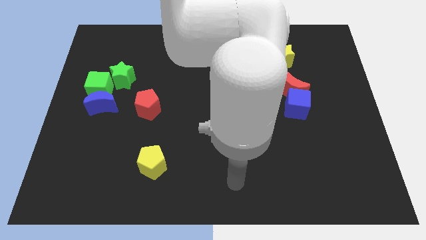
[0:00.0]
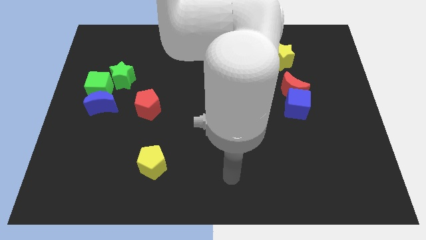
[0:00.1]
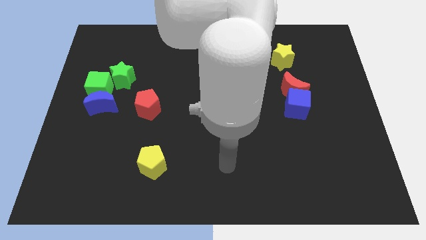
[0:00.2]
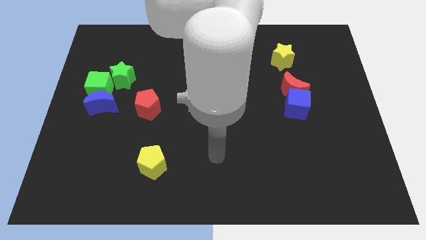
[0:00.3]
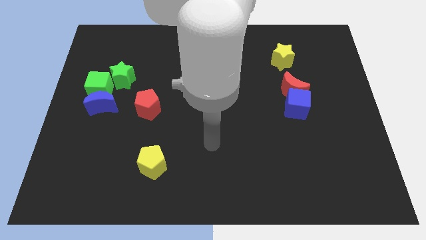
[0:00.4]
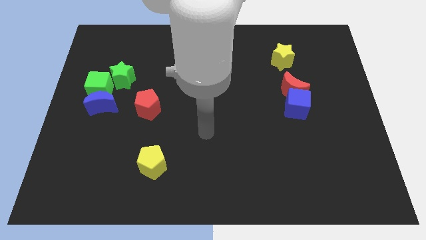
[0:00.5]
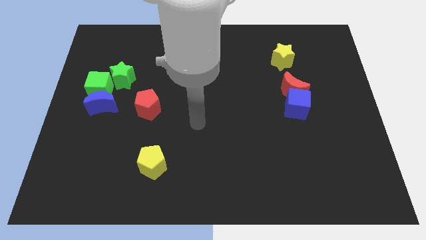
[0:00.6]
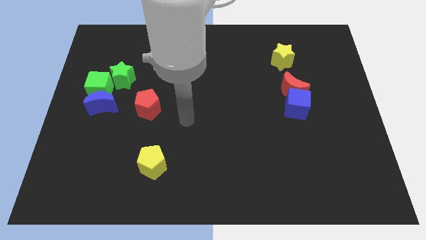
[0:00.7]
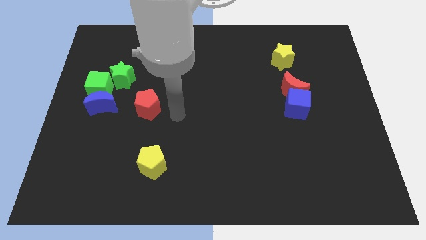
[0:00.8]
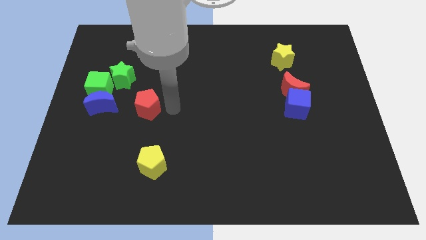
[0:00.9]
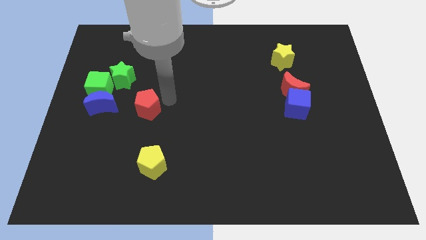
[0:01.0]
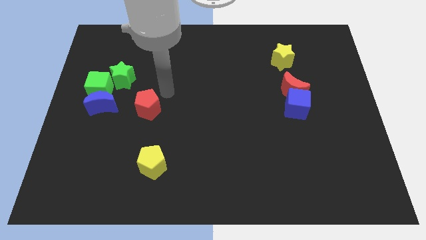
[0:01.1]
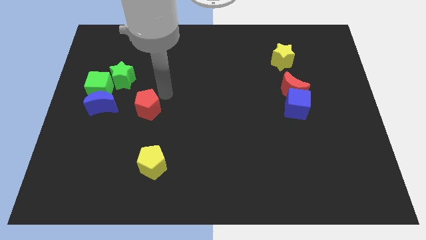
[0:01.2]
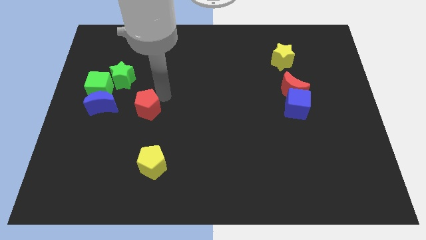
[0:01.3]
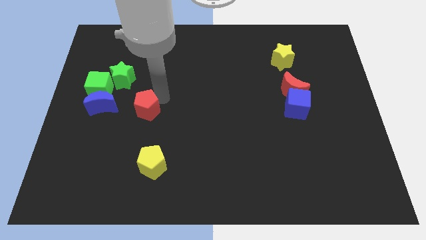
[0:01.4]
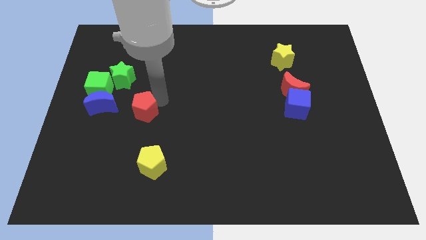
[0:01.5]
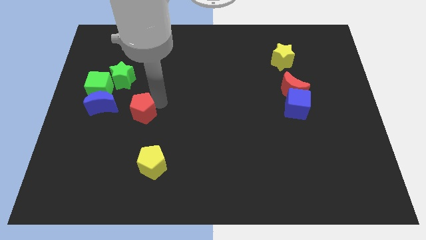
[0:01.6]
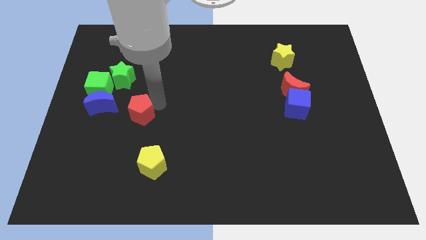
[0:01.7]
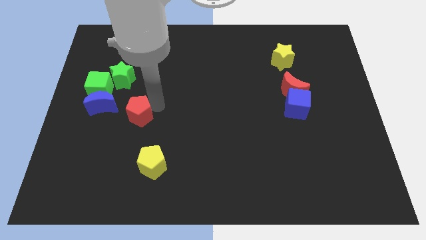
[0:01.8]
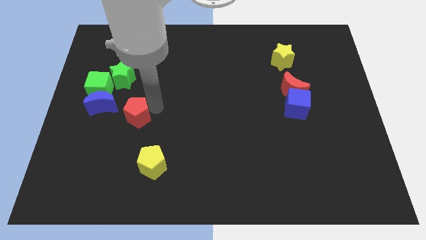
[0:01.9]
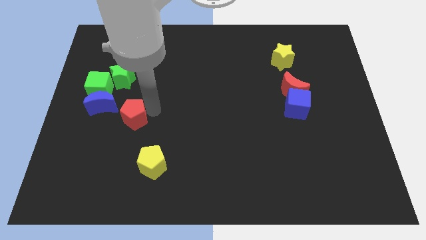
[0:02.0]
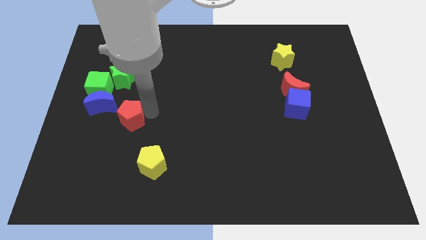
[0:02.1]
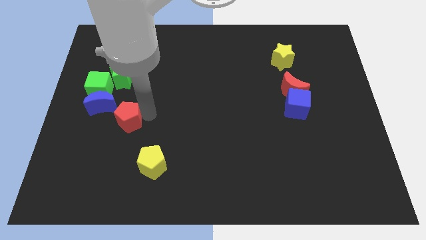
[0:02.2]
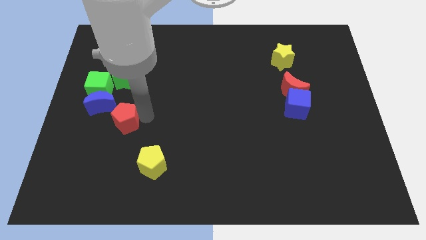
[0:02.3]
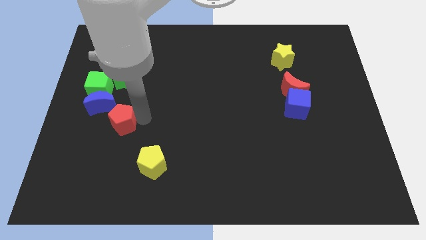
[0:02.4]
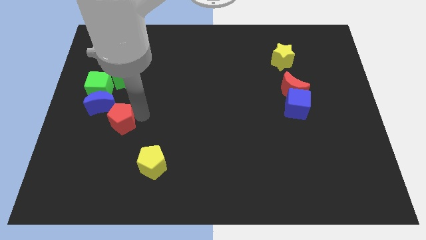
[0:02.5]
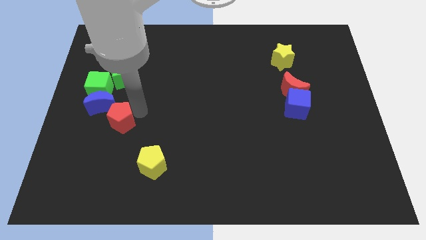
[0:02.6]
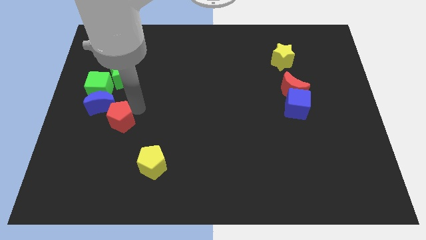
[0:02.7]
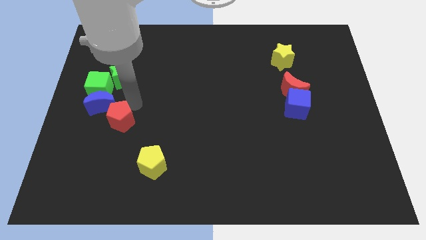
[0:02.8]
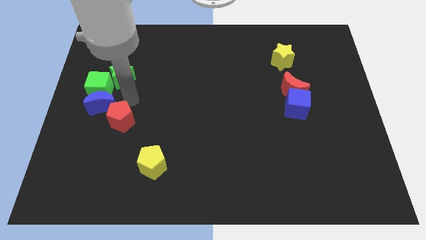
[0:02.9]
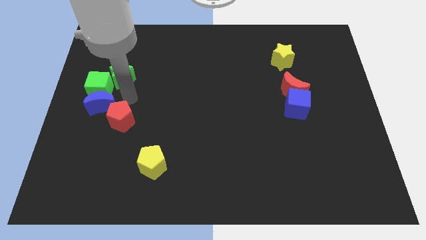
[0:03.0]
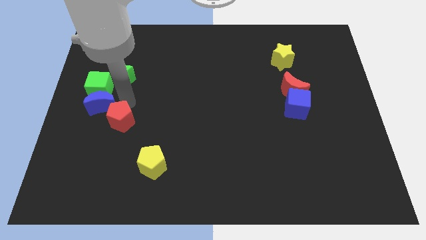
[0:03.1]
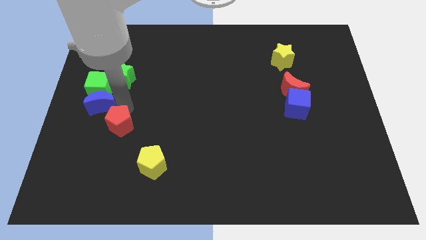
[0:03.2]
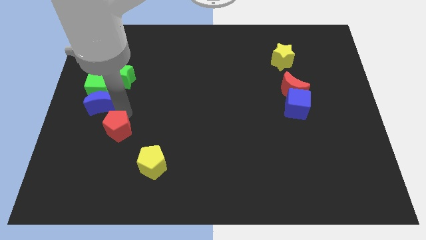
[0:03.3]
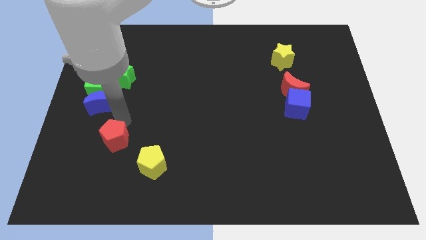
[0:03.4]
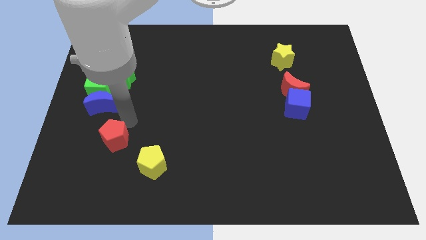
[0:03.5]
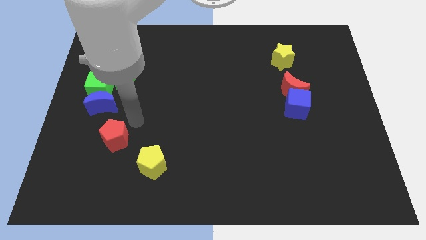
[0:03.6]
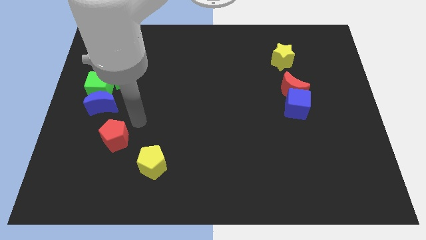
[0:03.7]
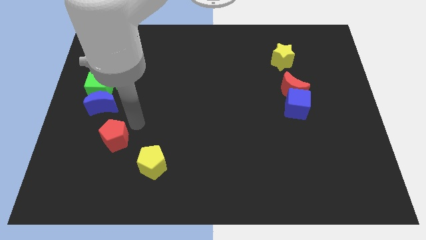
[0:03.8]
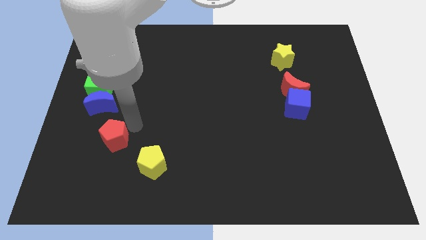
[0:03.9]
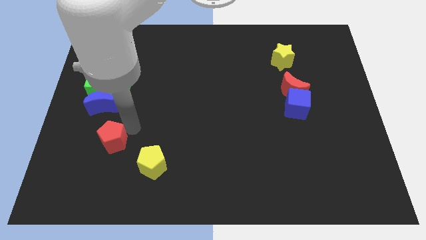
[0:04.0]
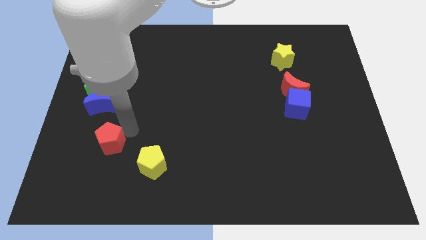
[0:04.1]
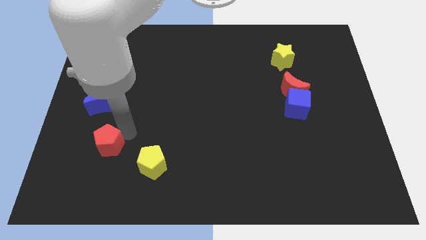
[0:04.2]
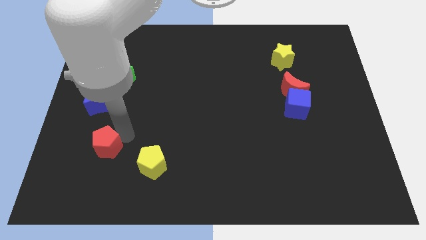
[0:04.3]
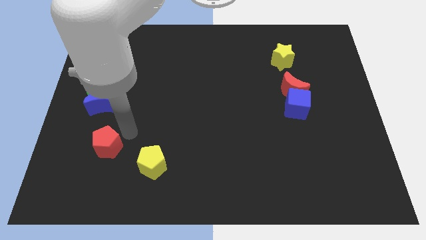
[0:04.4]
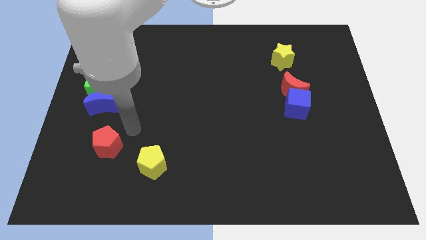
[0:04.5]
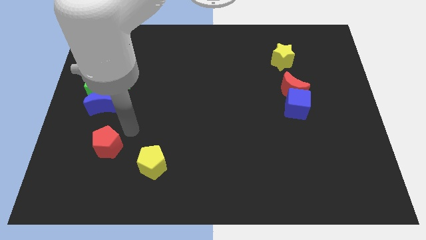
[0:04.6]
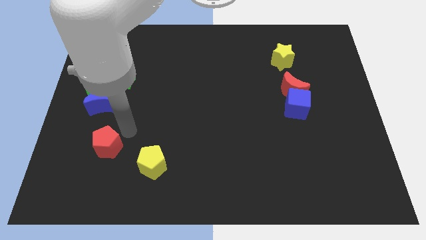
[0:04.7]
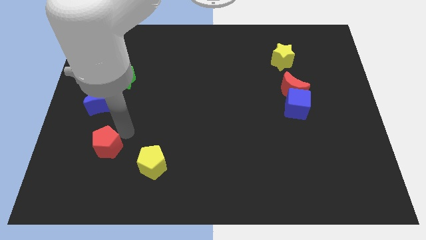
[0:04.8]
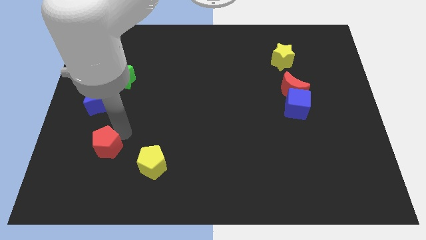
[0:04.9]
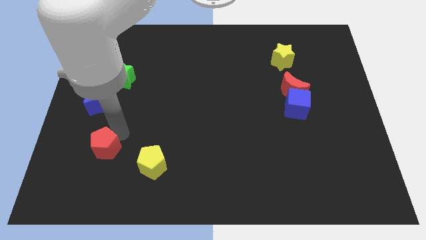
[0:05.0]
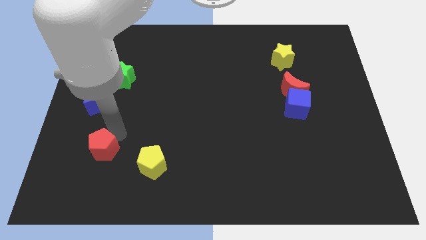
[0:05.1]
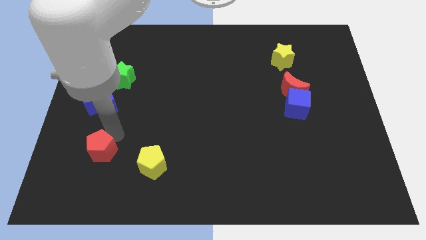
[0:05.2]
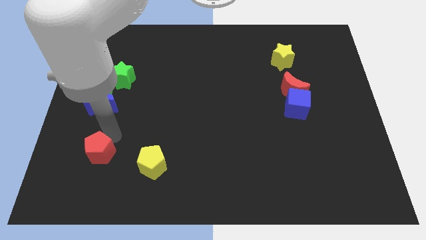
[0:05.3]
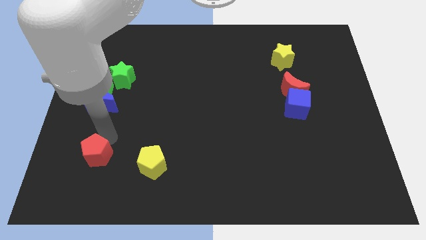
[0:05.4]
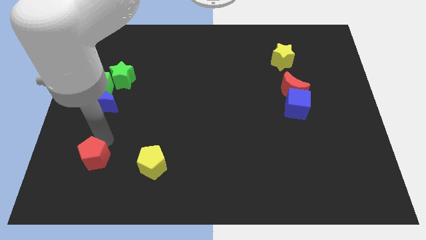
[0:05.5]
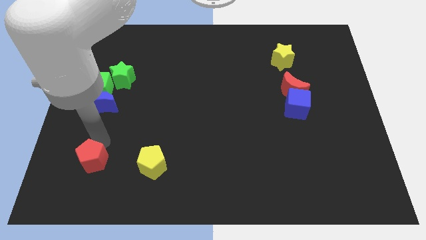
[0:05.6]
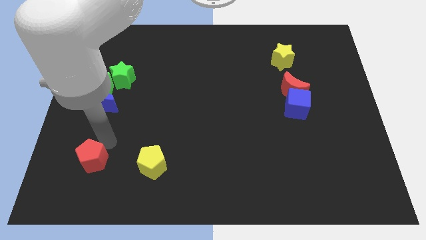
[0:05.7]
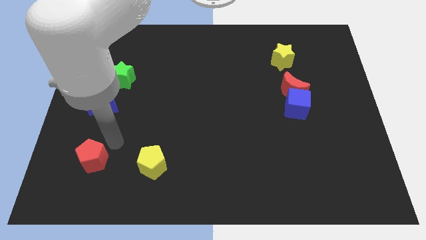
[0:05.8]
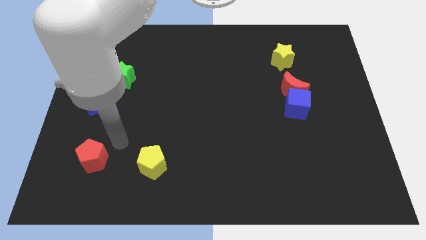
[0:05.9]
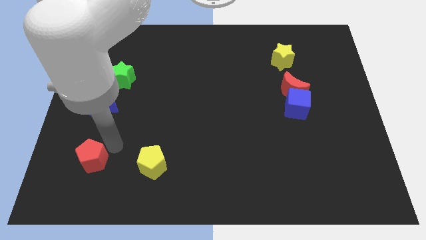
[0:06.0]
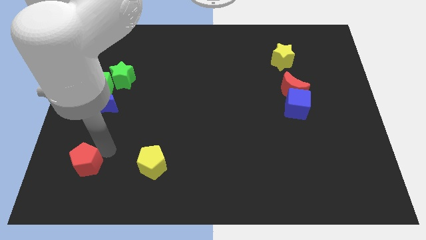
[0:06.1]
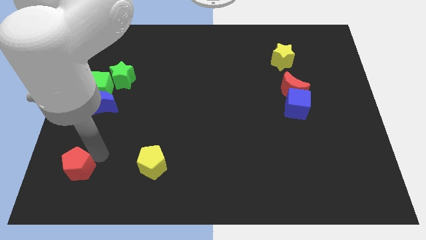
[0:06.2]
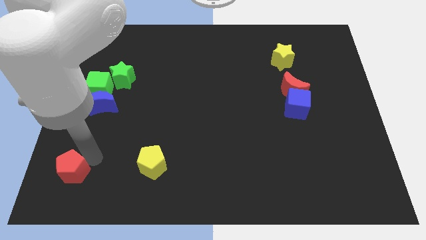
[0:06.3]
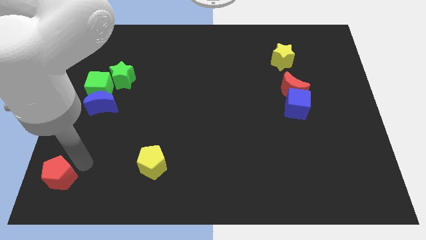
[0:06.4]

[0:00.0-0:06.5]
push the red pentagon to the lower left corner
